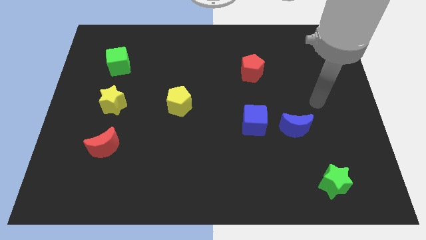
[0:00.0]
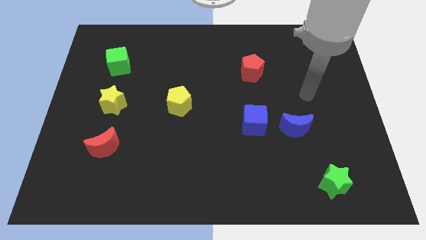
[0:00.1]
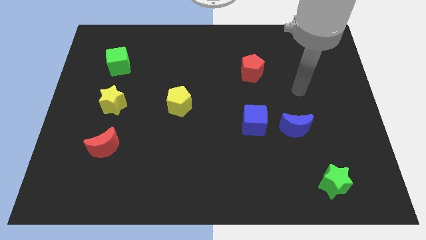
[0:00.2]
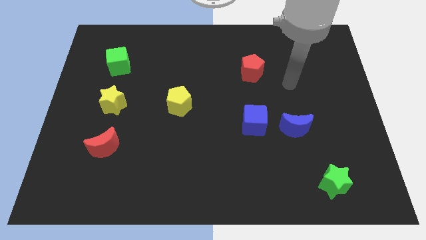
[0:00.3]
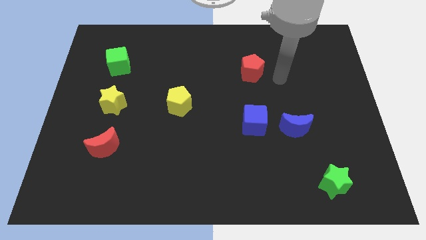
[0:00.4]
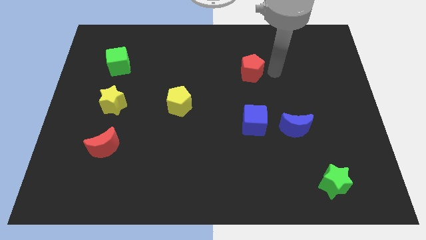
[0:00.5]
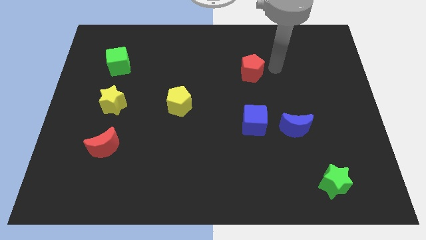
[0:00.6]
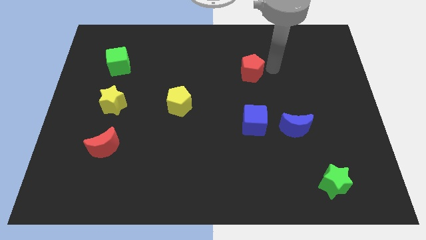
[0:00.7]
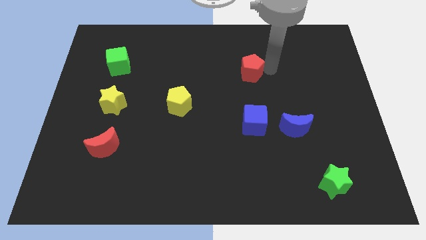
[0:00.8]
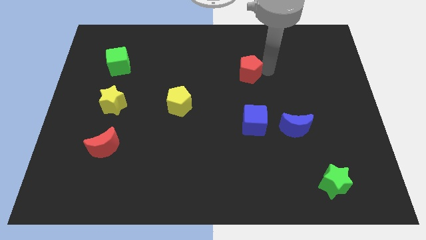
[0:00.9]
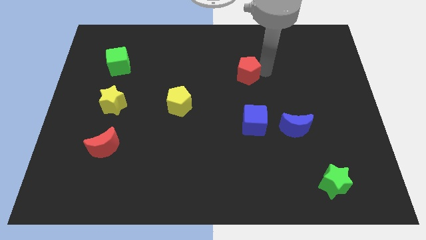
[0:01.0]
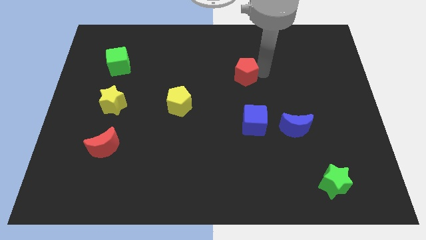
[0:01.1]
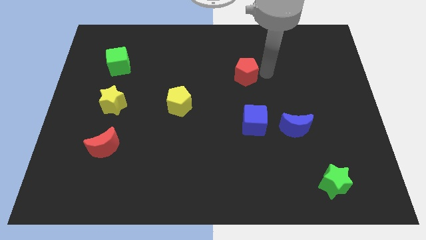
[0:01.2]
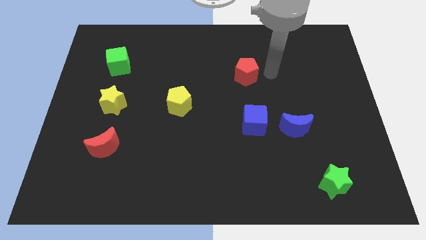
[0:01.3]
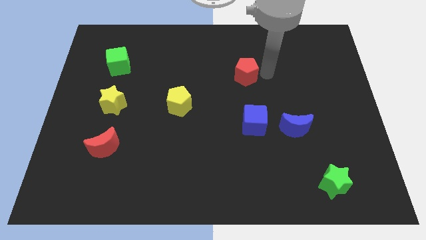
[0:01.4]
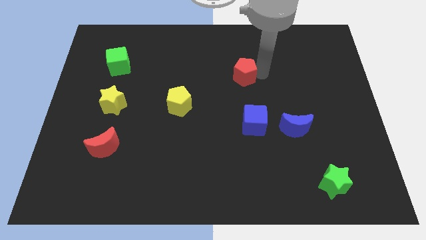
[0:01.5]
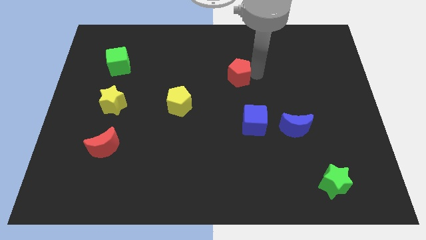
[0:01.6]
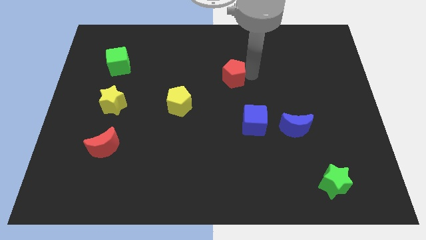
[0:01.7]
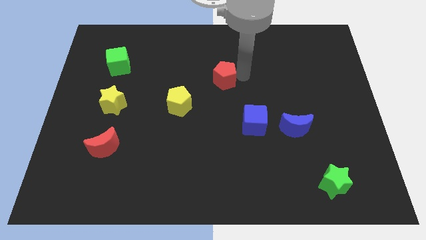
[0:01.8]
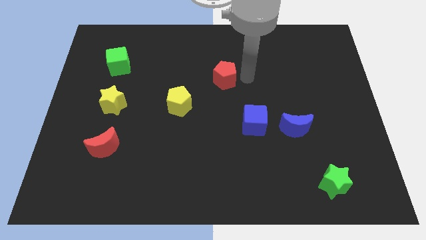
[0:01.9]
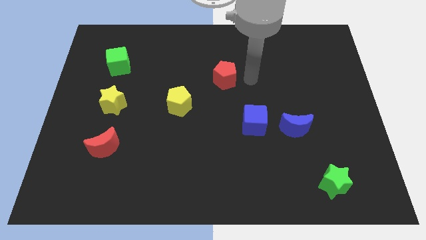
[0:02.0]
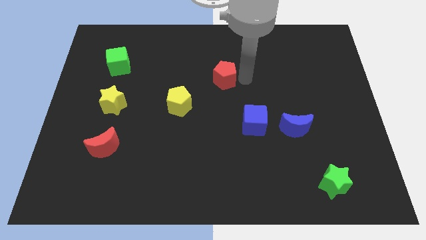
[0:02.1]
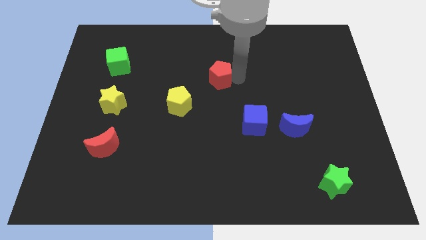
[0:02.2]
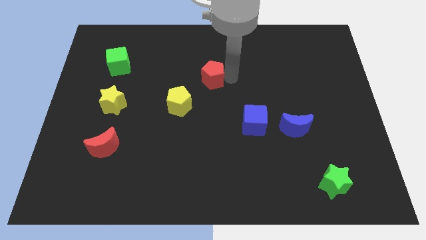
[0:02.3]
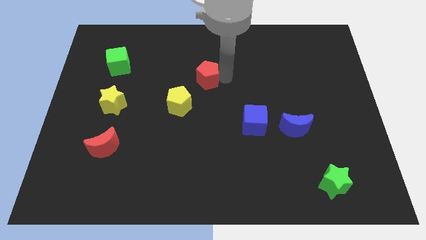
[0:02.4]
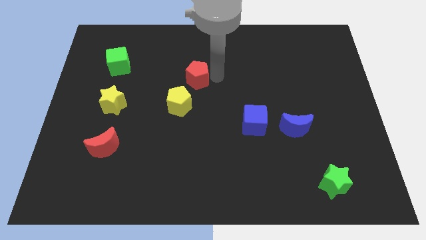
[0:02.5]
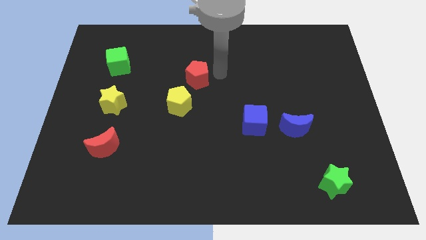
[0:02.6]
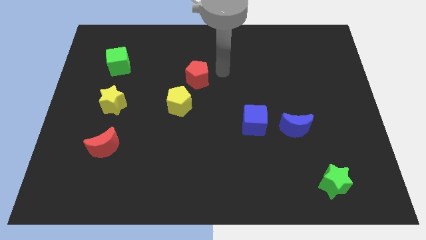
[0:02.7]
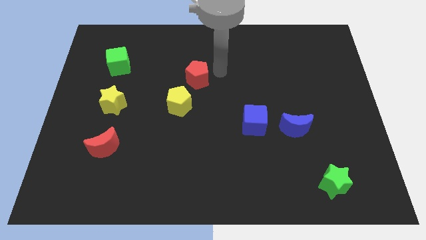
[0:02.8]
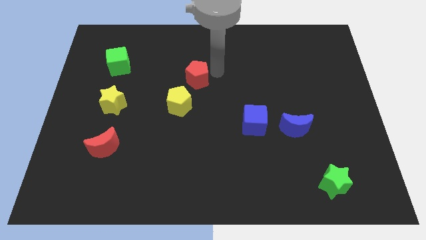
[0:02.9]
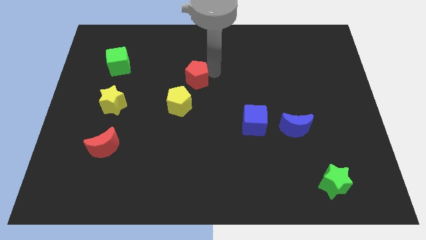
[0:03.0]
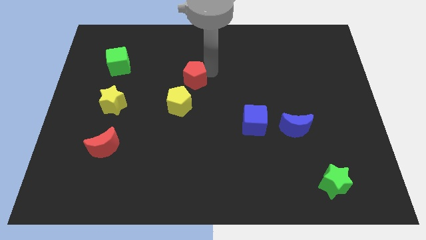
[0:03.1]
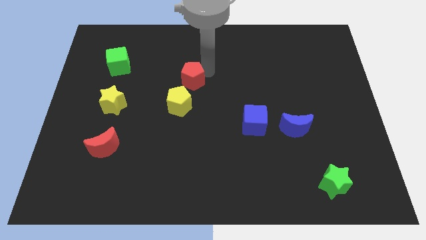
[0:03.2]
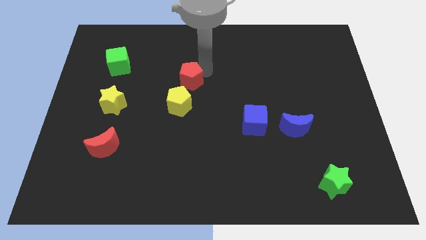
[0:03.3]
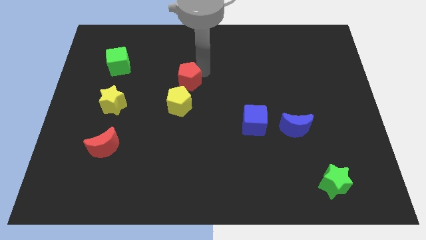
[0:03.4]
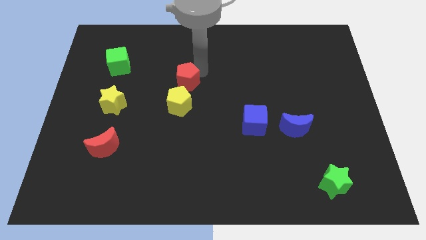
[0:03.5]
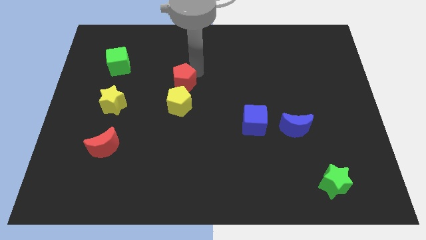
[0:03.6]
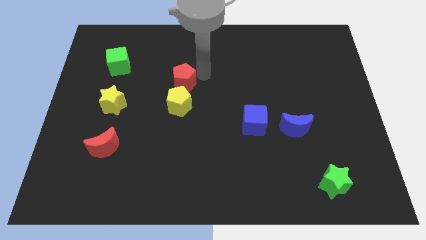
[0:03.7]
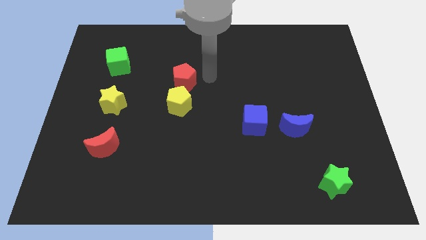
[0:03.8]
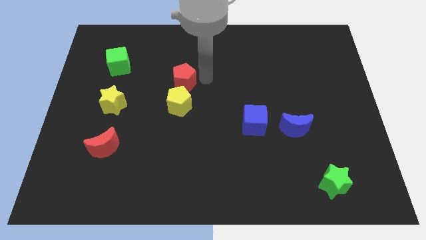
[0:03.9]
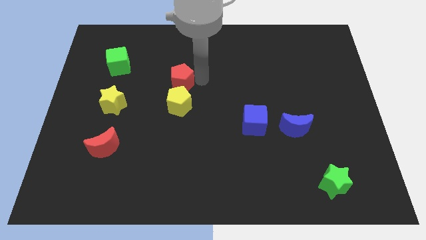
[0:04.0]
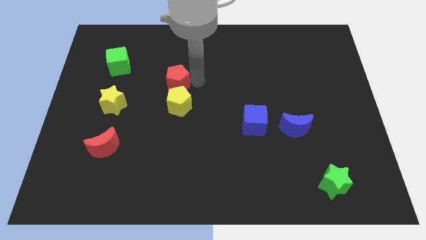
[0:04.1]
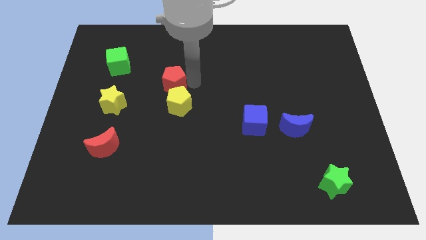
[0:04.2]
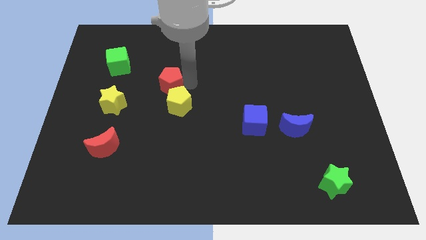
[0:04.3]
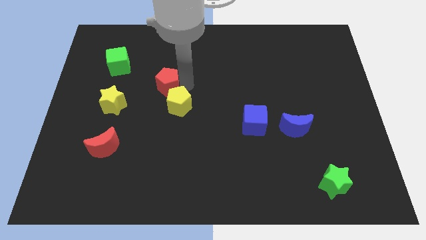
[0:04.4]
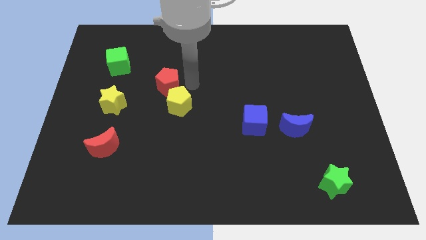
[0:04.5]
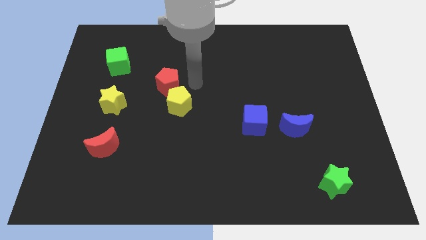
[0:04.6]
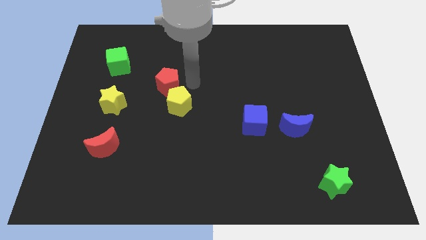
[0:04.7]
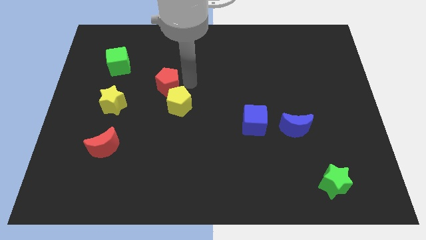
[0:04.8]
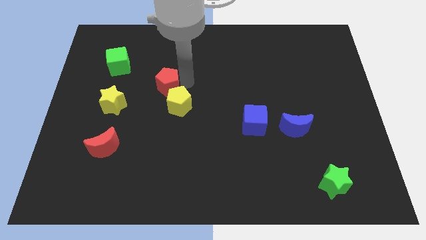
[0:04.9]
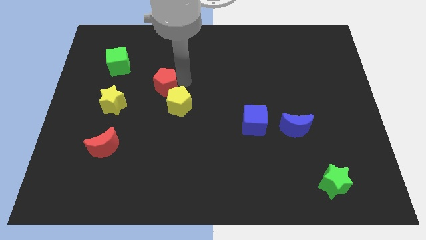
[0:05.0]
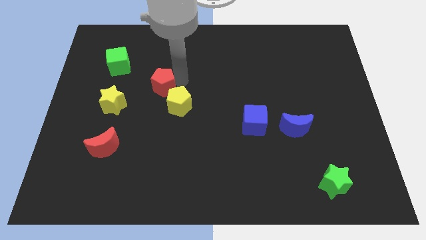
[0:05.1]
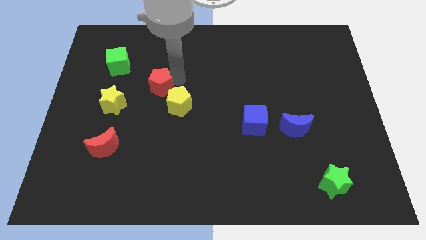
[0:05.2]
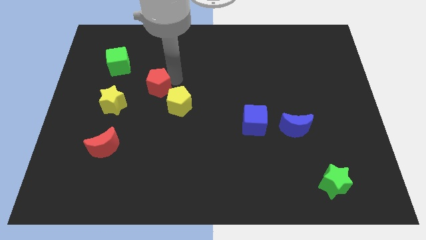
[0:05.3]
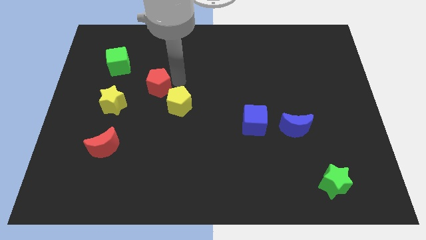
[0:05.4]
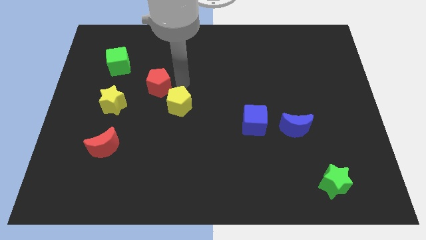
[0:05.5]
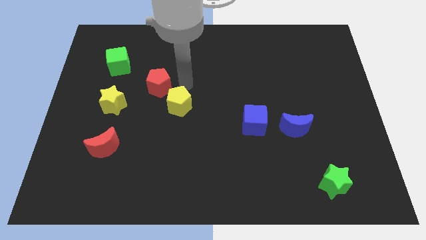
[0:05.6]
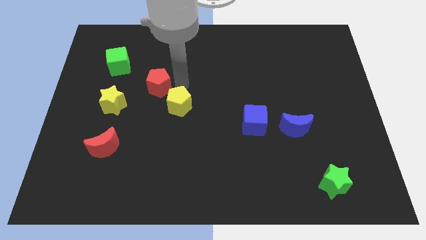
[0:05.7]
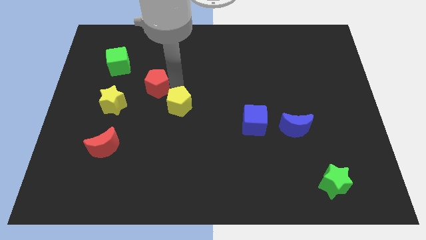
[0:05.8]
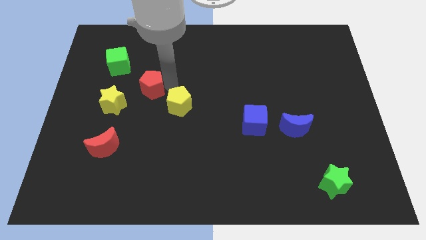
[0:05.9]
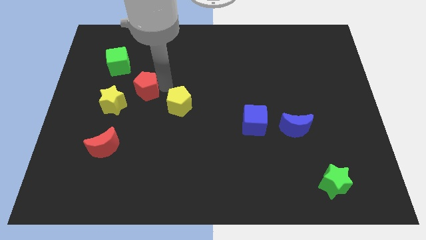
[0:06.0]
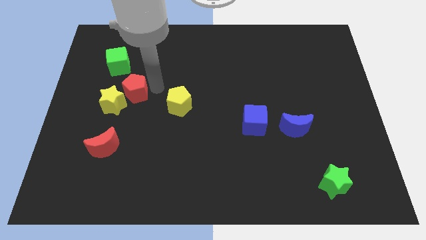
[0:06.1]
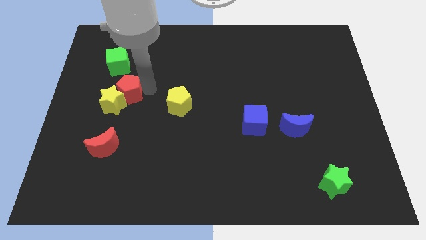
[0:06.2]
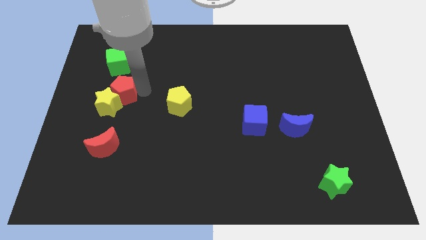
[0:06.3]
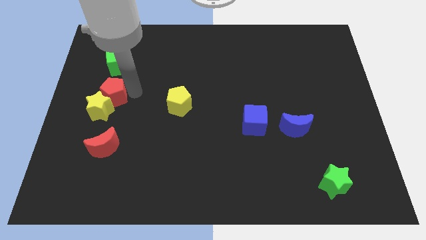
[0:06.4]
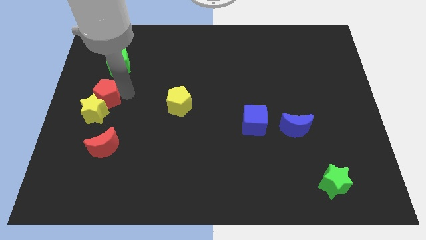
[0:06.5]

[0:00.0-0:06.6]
put the red pentagon to the left side
